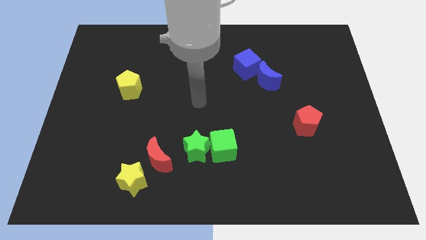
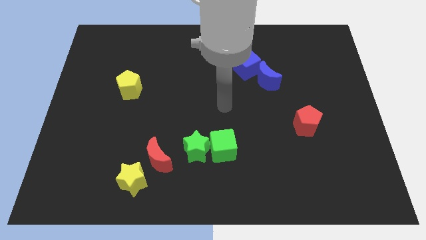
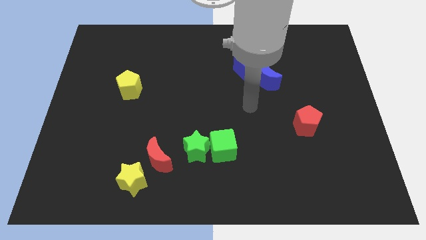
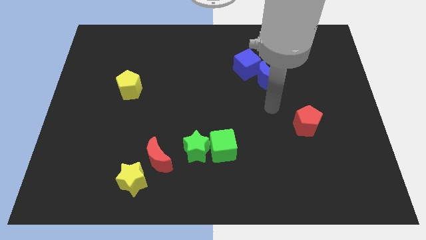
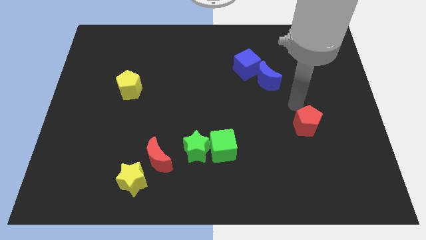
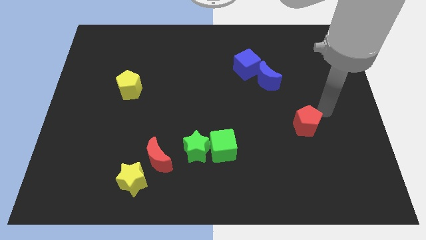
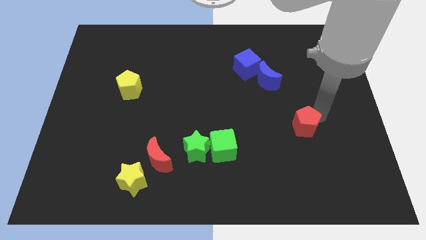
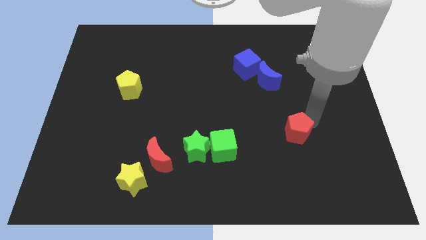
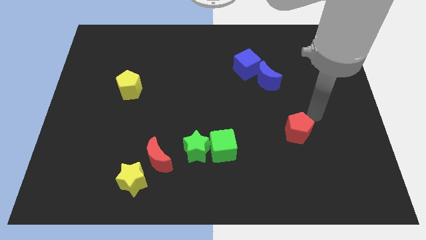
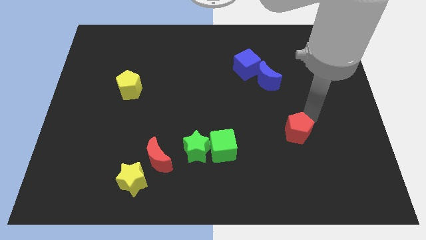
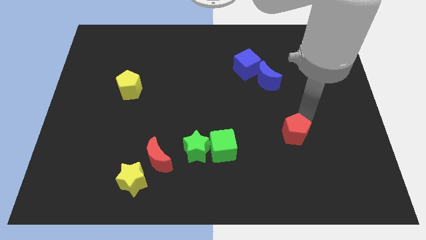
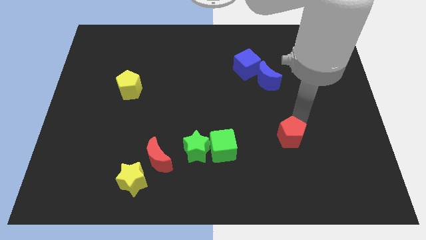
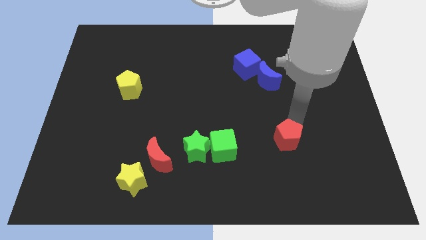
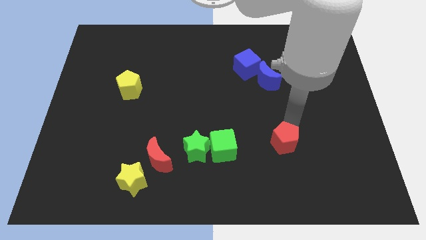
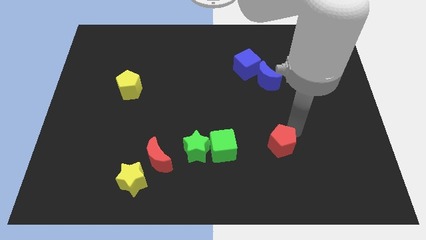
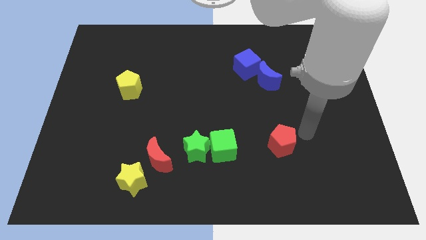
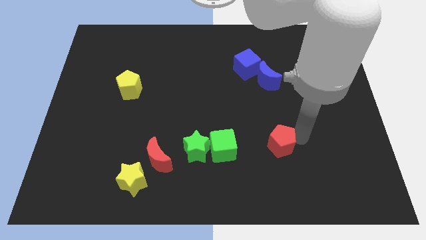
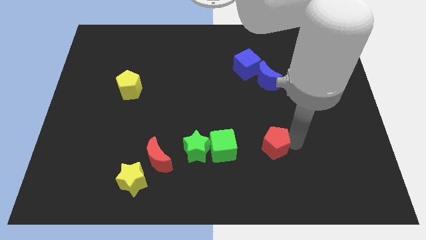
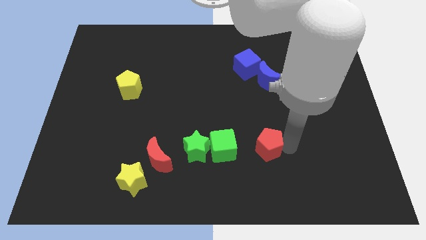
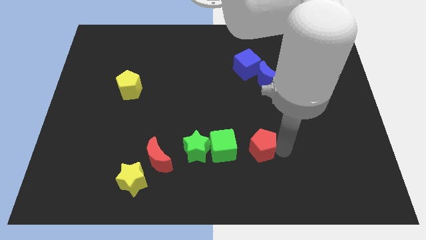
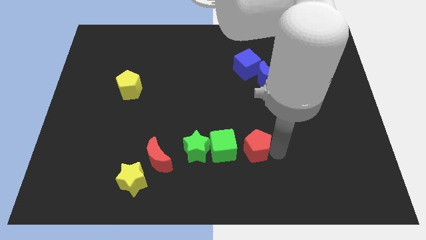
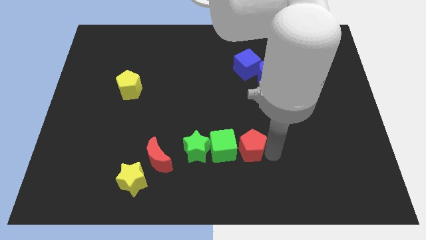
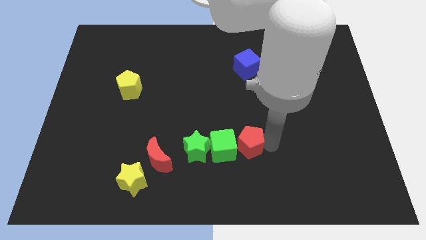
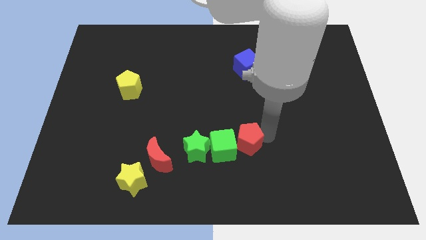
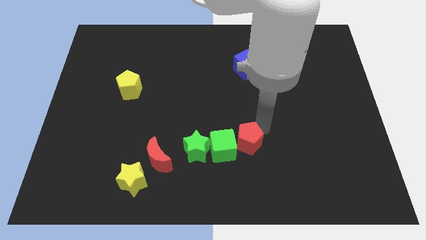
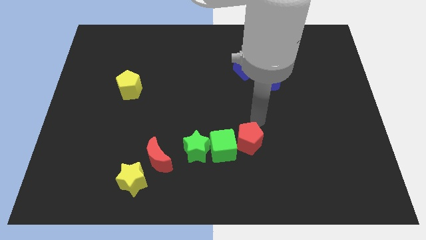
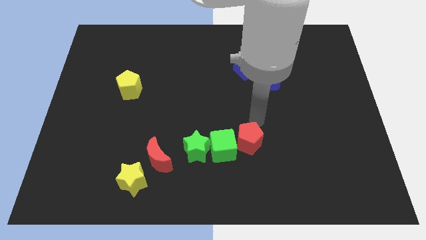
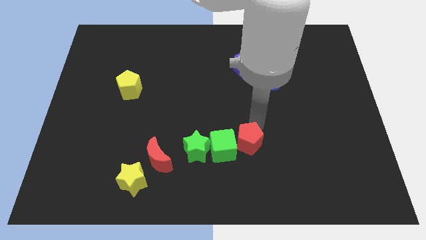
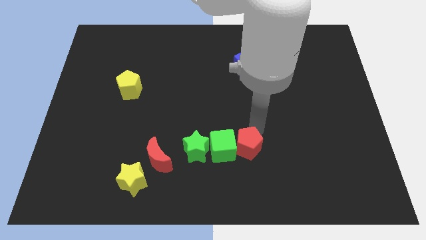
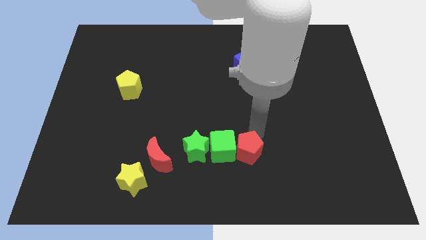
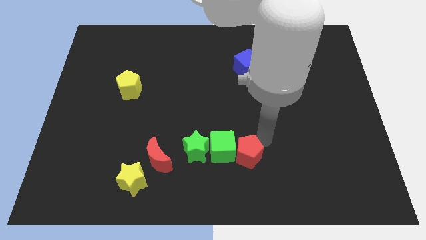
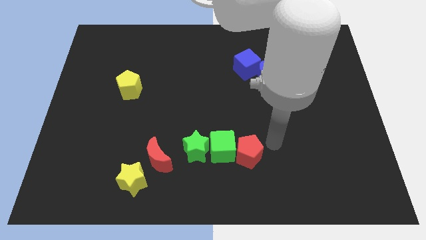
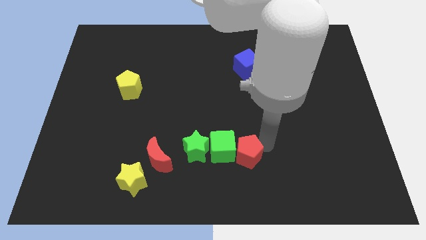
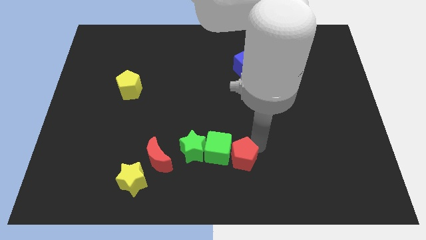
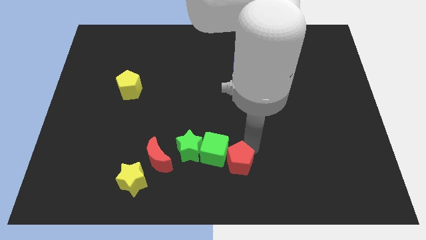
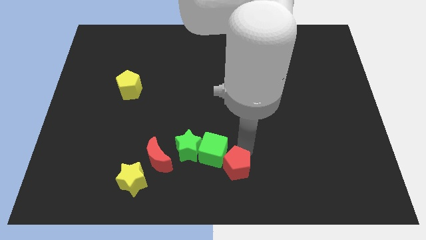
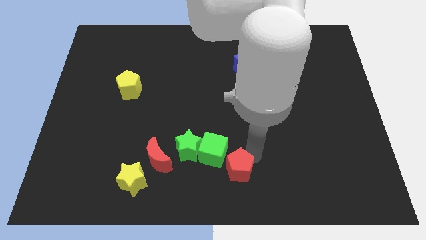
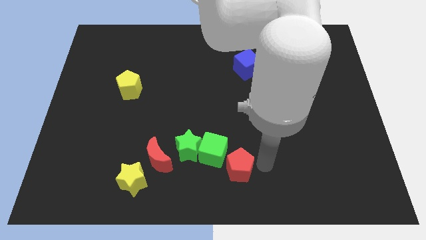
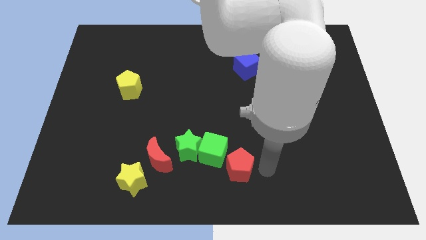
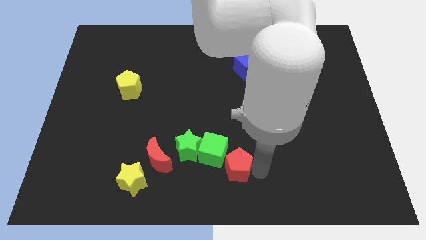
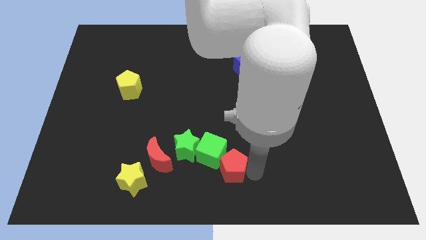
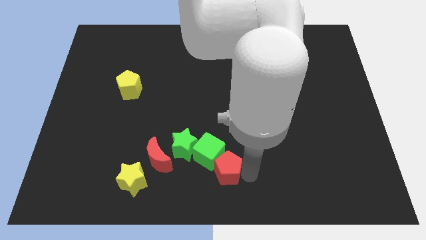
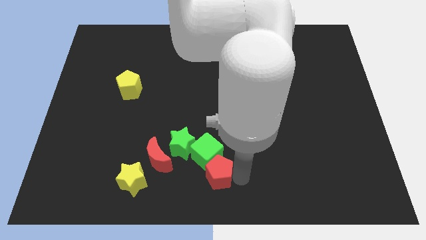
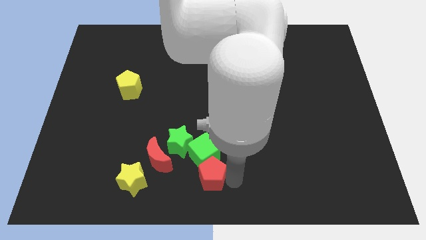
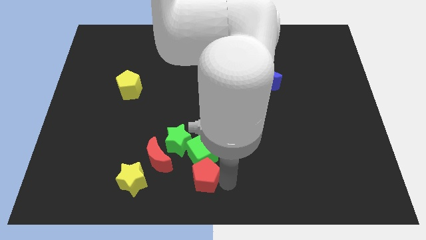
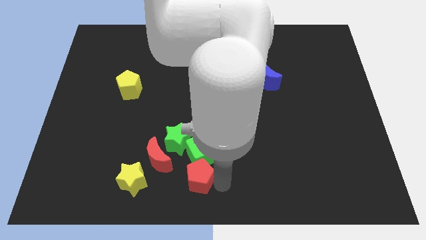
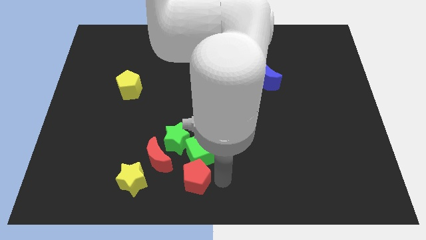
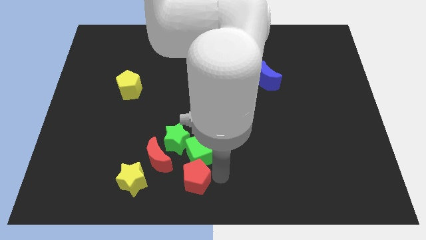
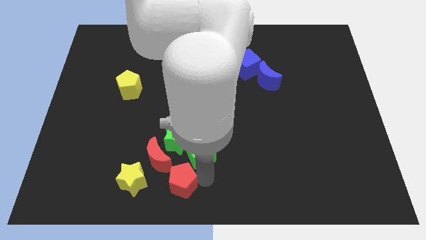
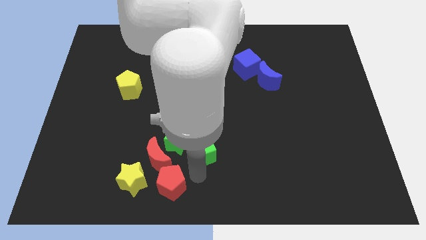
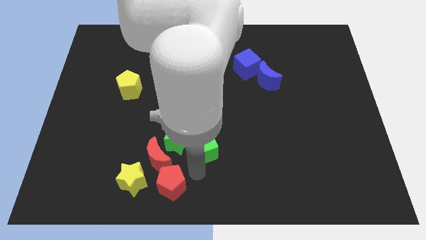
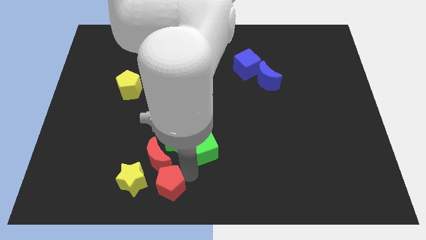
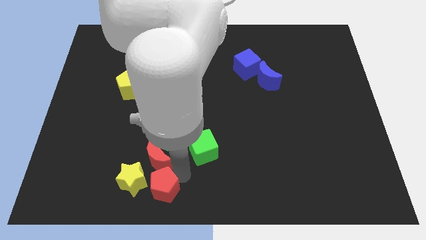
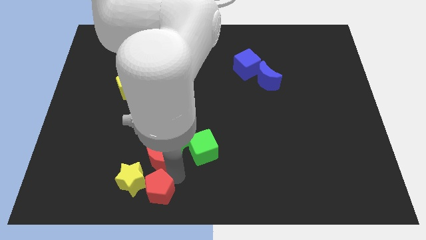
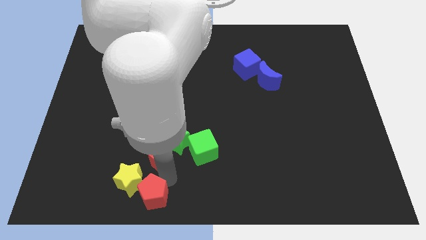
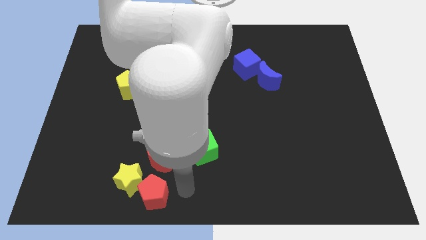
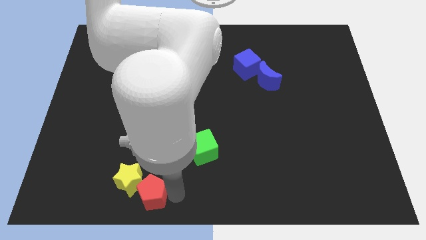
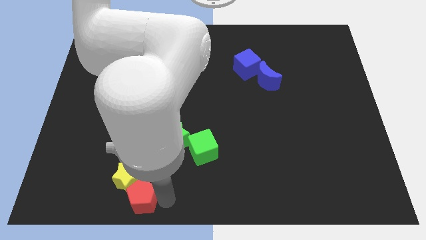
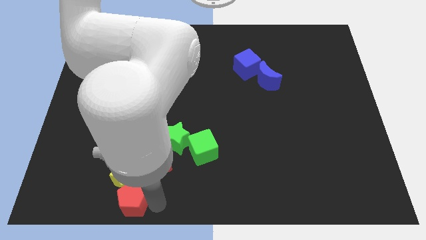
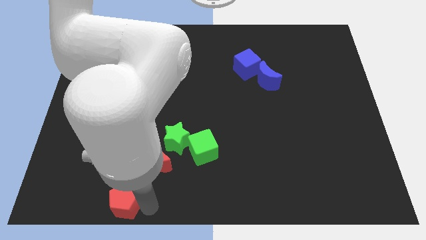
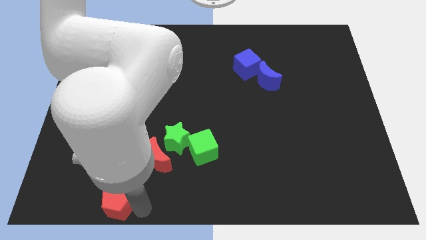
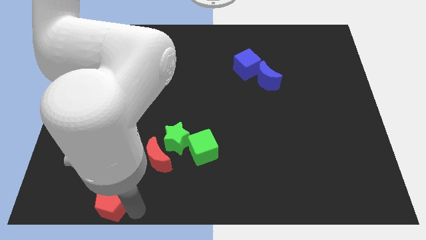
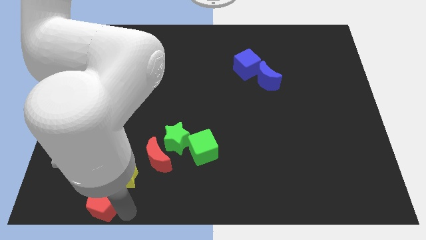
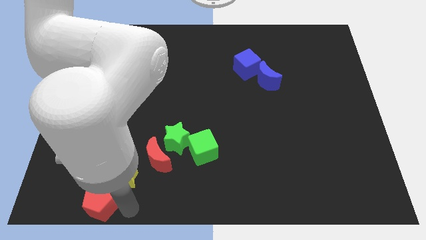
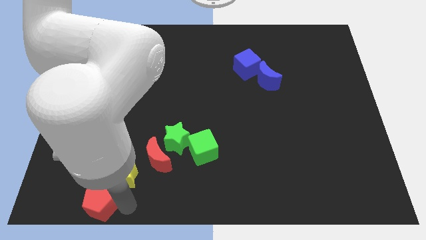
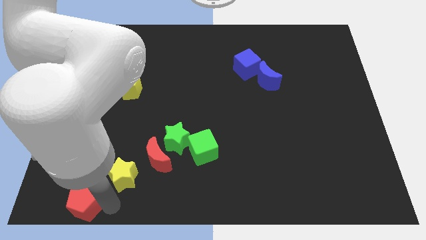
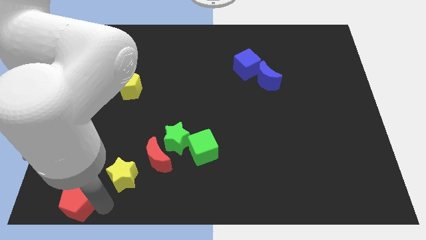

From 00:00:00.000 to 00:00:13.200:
put the red pentagon to the bottom left
